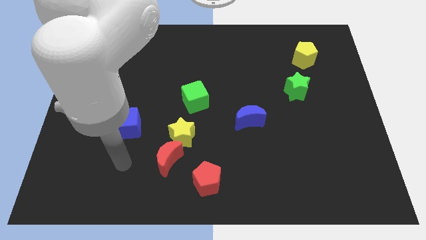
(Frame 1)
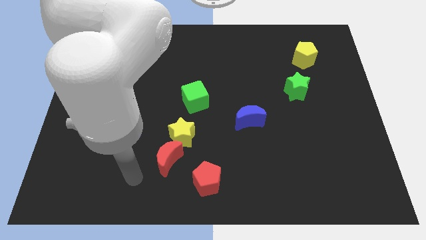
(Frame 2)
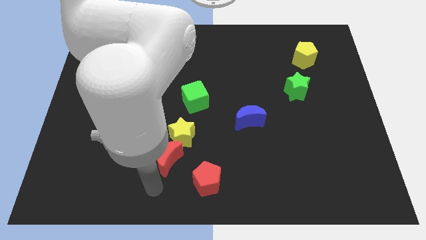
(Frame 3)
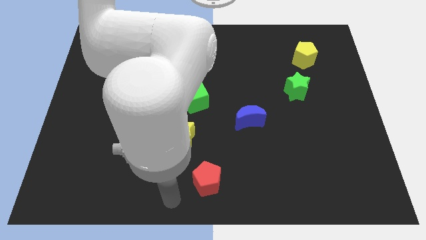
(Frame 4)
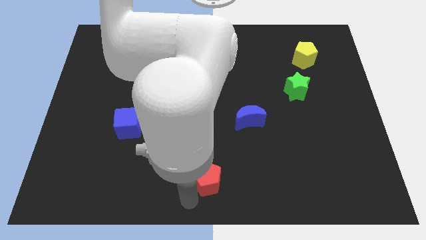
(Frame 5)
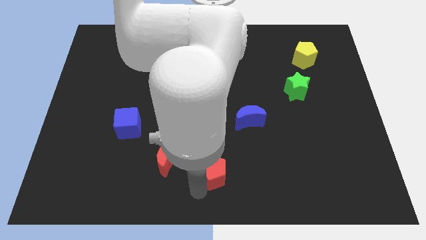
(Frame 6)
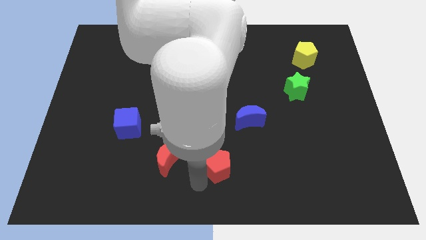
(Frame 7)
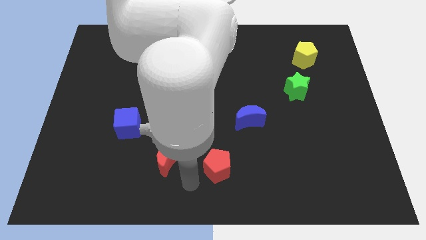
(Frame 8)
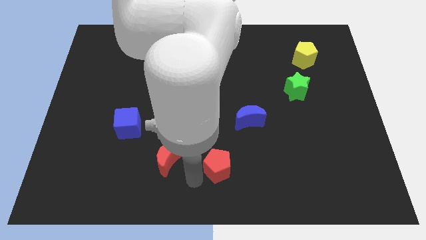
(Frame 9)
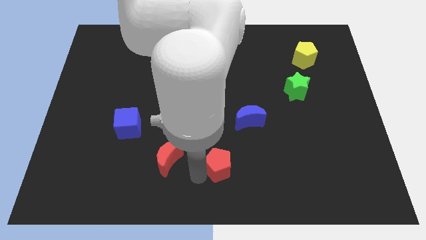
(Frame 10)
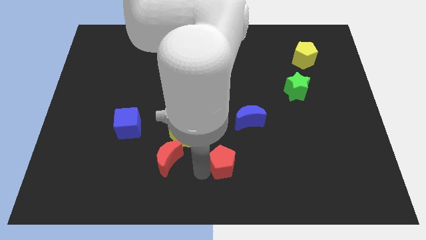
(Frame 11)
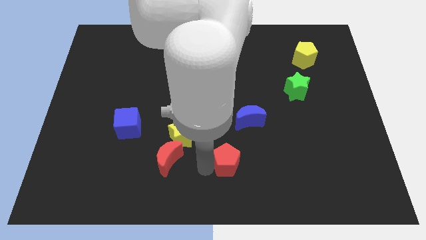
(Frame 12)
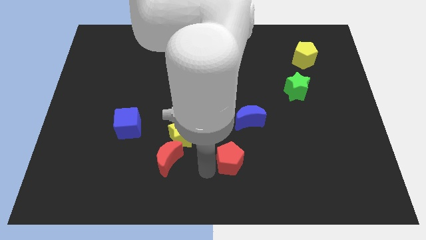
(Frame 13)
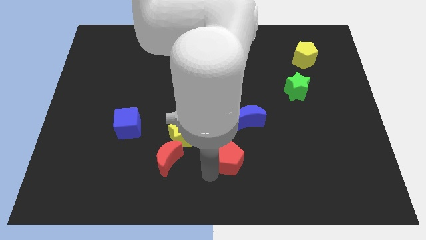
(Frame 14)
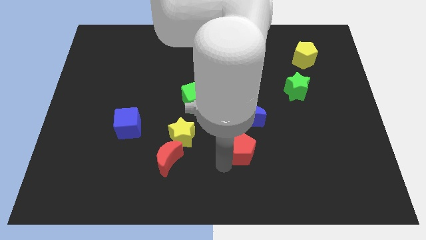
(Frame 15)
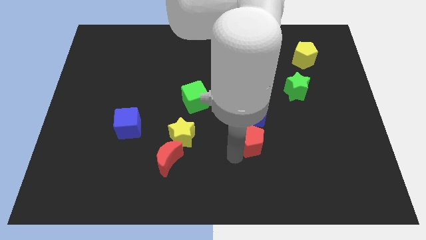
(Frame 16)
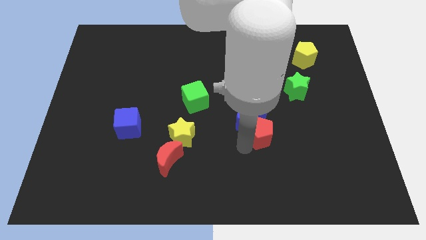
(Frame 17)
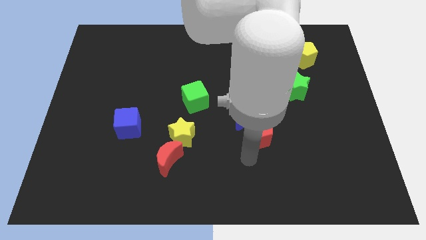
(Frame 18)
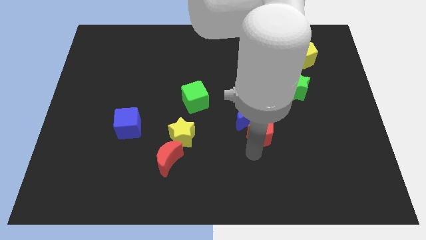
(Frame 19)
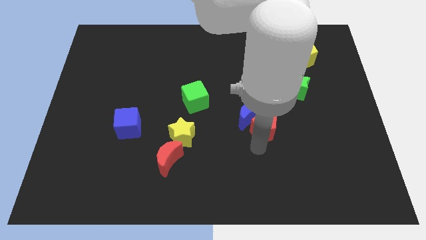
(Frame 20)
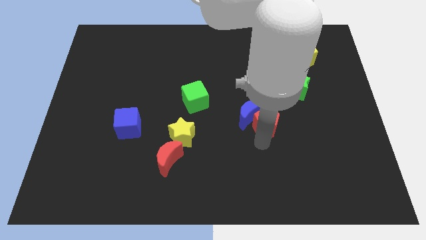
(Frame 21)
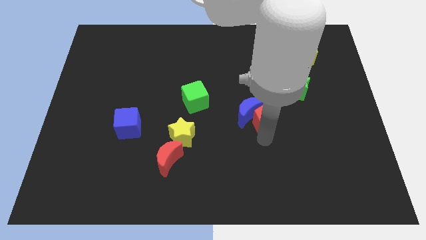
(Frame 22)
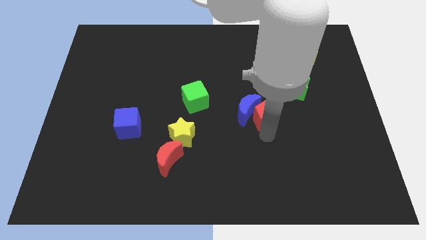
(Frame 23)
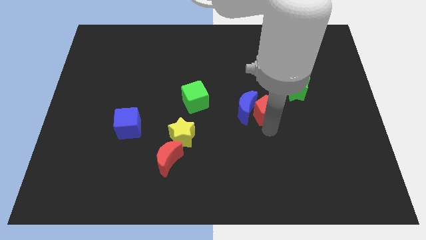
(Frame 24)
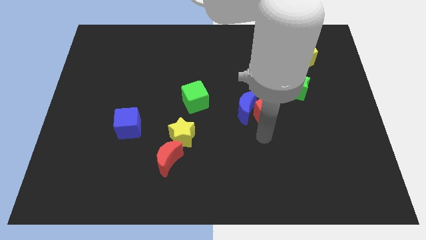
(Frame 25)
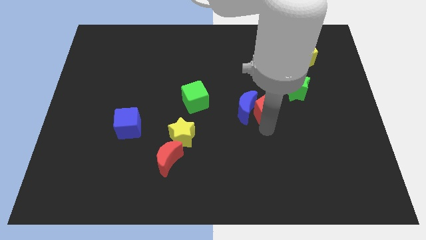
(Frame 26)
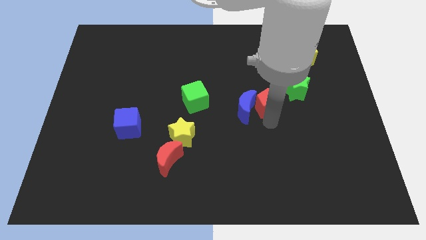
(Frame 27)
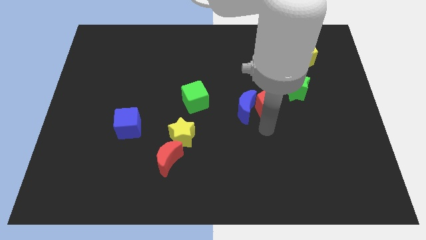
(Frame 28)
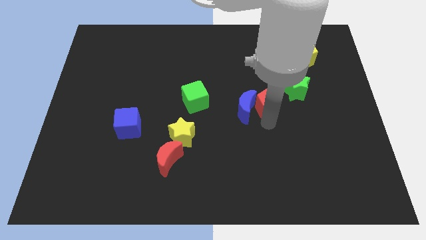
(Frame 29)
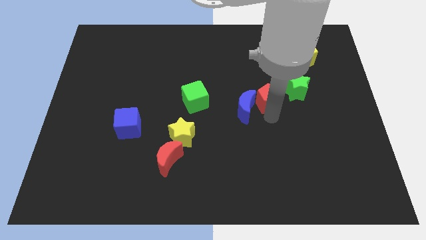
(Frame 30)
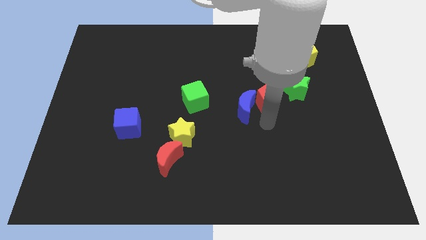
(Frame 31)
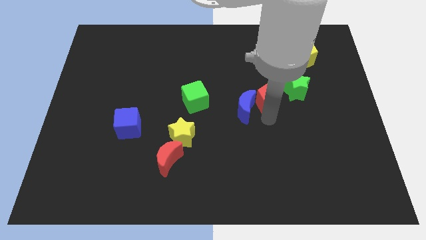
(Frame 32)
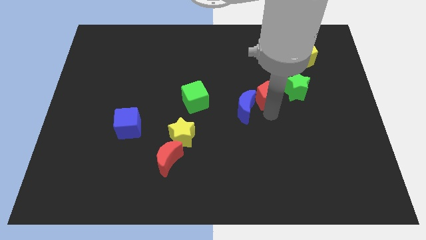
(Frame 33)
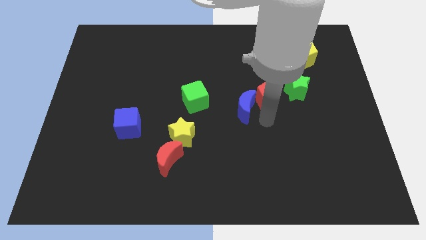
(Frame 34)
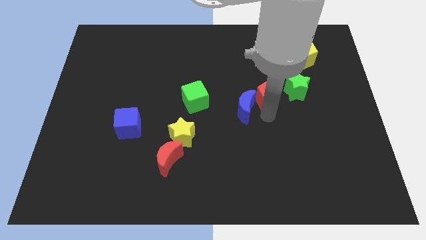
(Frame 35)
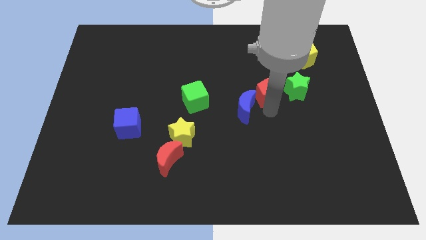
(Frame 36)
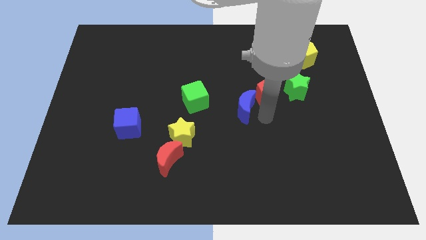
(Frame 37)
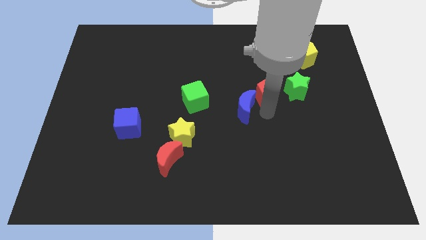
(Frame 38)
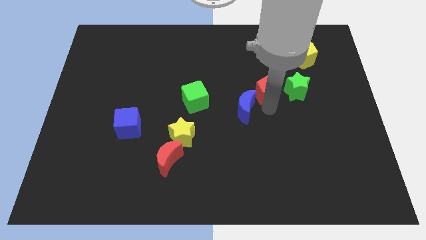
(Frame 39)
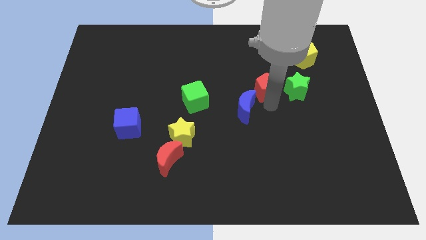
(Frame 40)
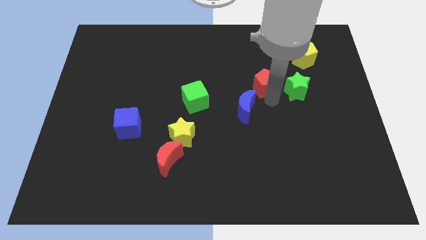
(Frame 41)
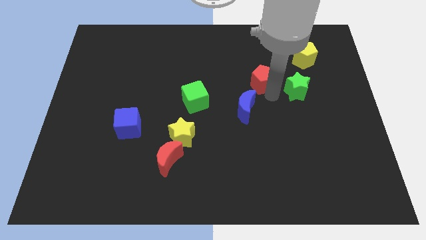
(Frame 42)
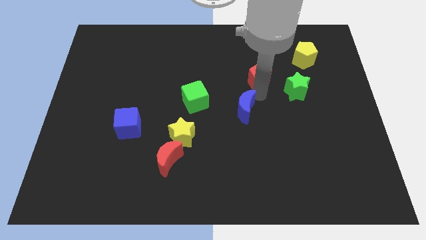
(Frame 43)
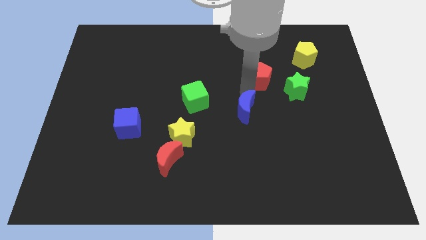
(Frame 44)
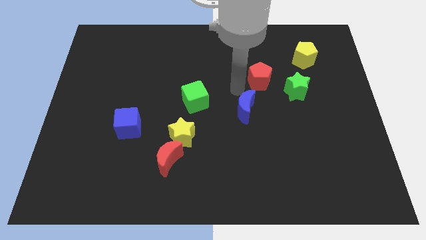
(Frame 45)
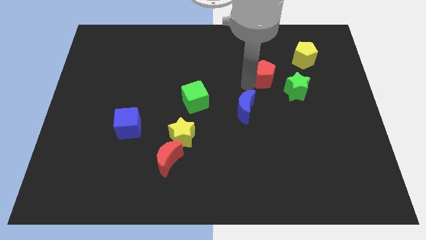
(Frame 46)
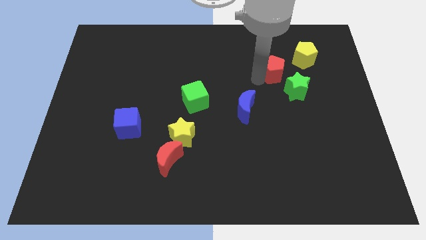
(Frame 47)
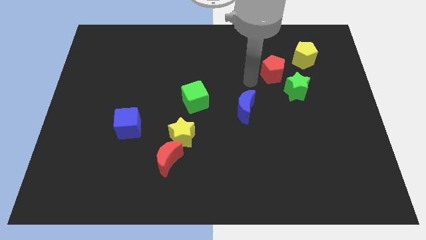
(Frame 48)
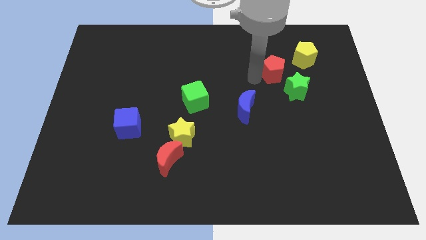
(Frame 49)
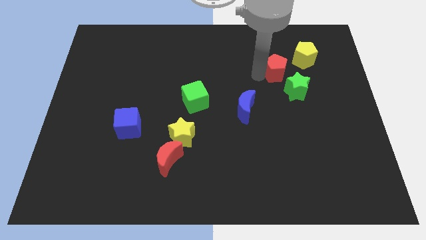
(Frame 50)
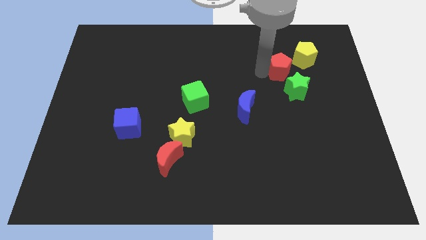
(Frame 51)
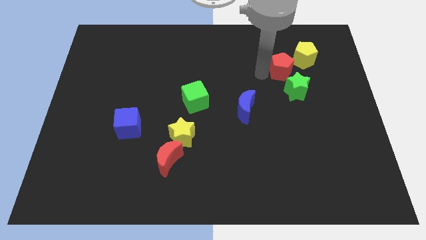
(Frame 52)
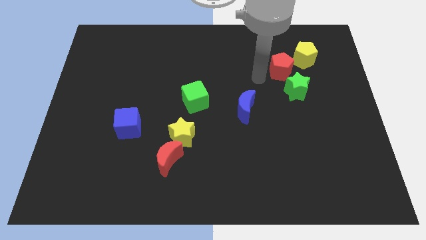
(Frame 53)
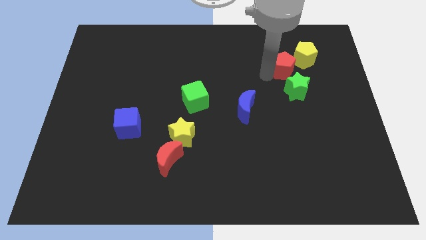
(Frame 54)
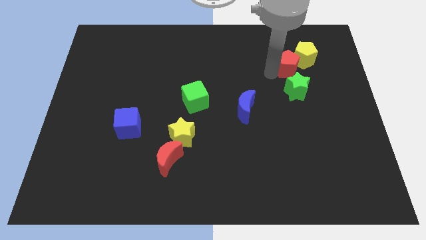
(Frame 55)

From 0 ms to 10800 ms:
push the red pentagon next to the yellow pentagon
